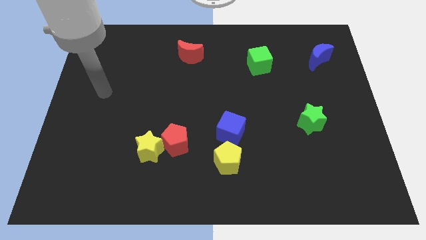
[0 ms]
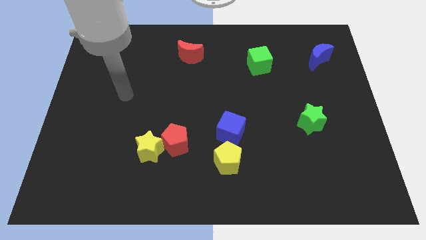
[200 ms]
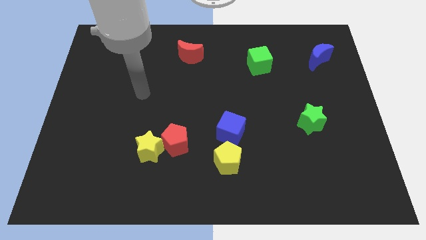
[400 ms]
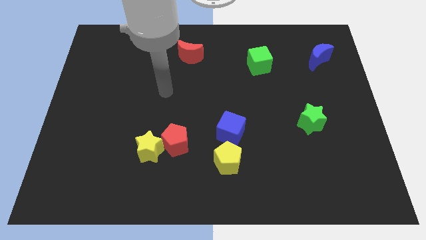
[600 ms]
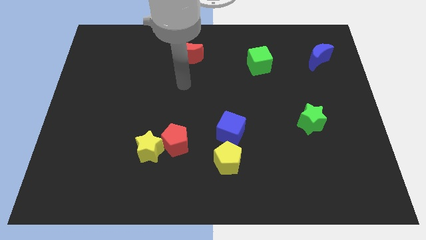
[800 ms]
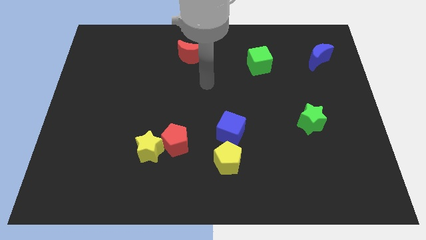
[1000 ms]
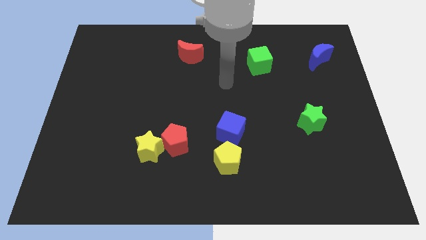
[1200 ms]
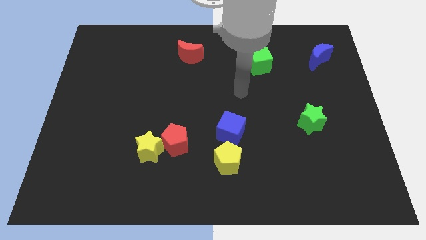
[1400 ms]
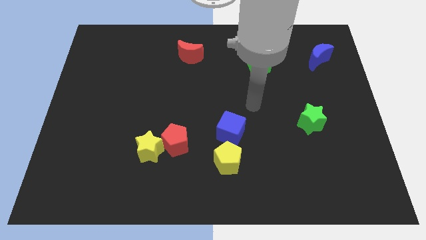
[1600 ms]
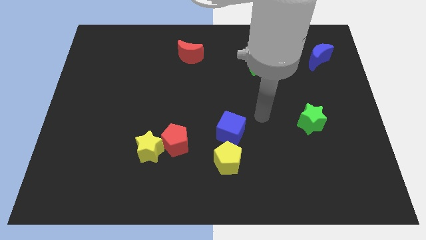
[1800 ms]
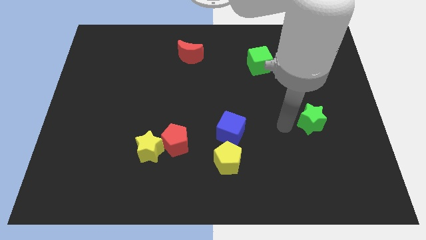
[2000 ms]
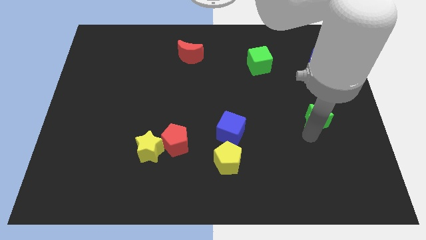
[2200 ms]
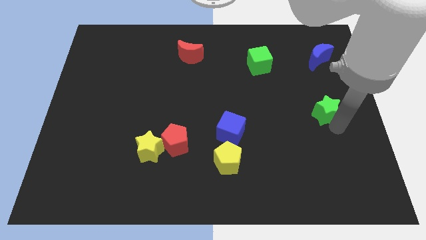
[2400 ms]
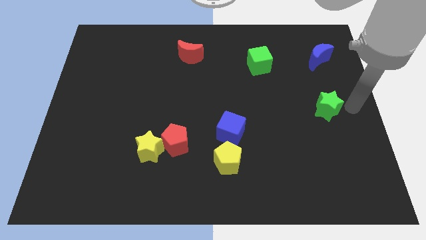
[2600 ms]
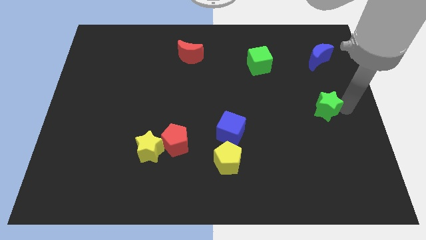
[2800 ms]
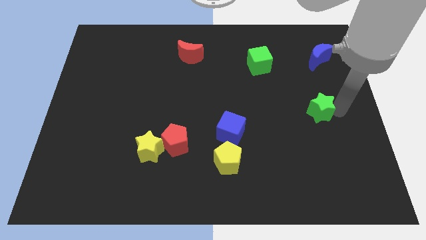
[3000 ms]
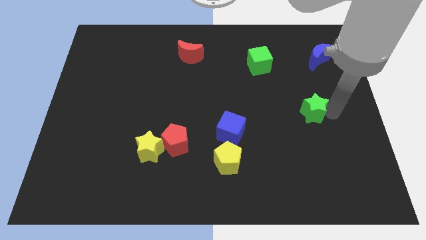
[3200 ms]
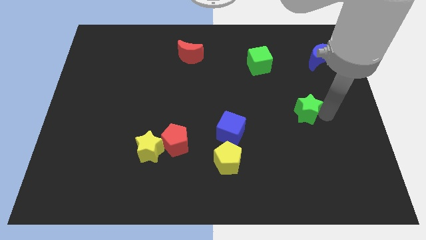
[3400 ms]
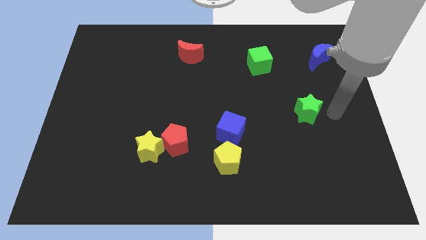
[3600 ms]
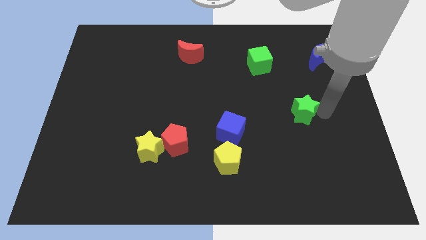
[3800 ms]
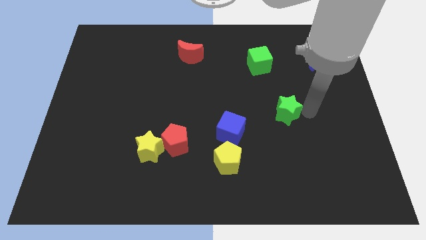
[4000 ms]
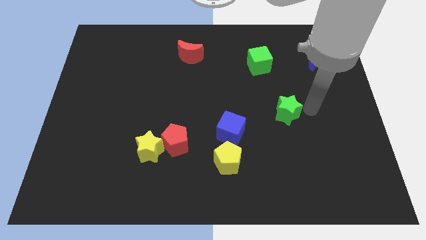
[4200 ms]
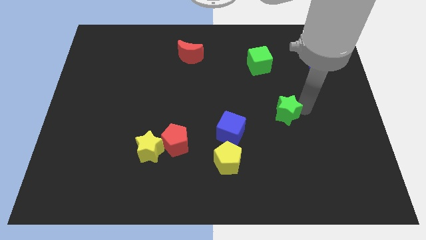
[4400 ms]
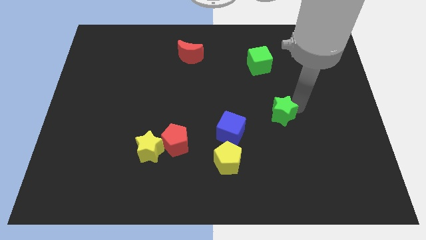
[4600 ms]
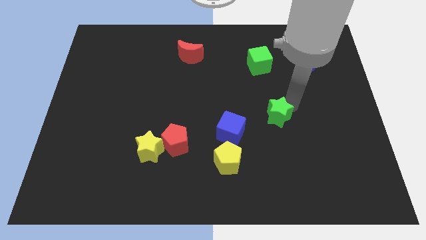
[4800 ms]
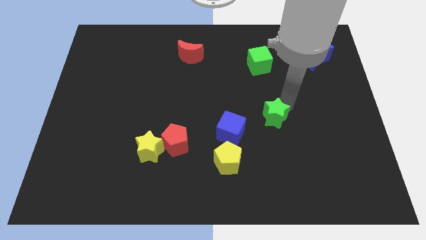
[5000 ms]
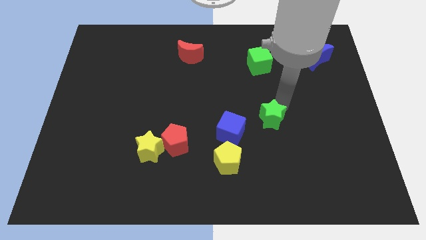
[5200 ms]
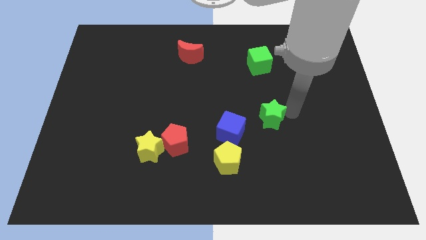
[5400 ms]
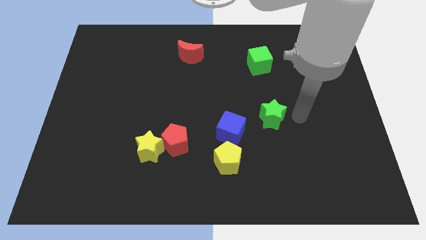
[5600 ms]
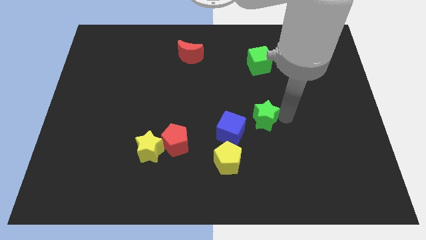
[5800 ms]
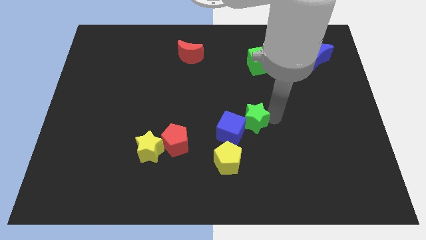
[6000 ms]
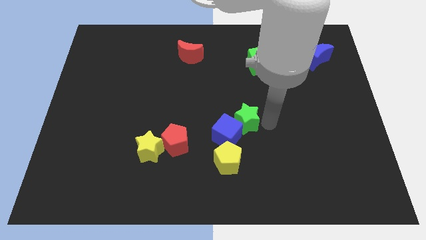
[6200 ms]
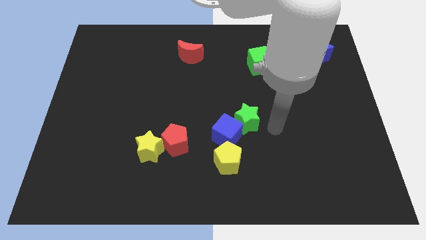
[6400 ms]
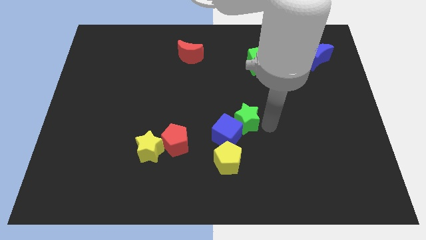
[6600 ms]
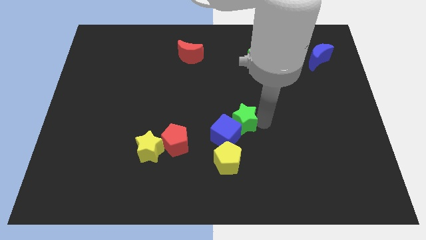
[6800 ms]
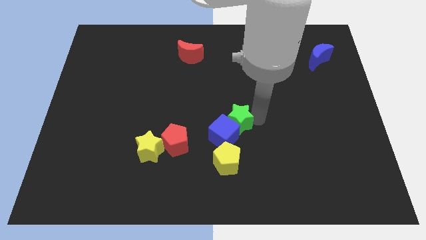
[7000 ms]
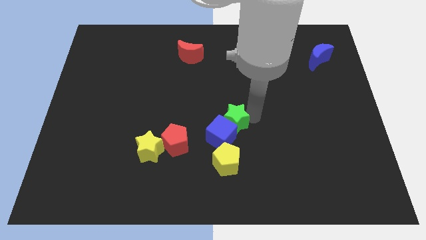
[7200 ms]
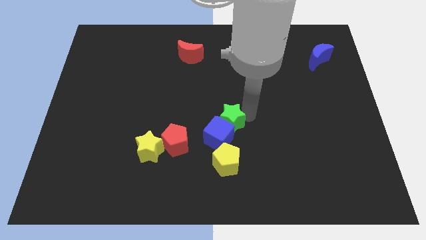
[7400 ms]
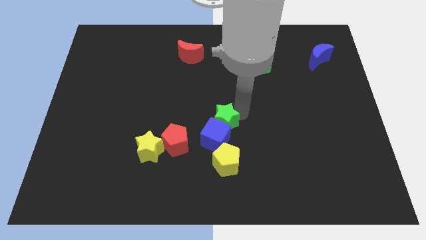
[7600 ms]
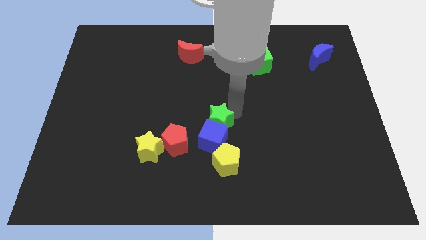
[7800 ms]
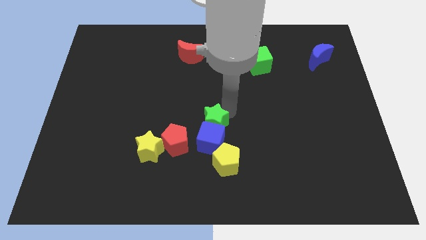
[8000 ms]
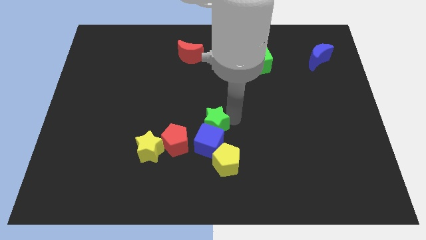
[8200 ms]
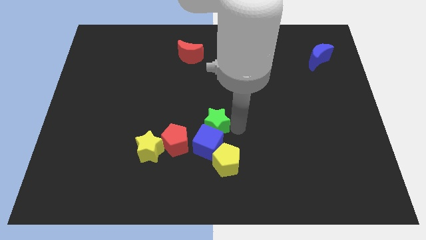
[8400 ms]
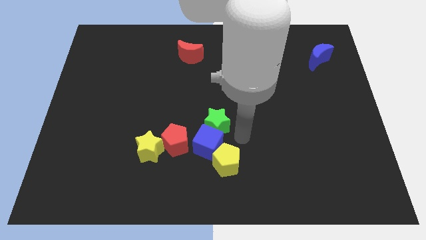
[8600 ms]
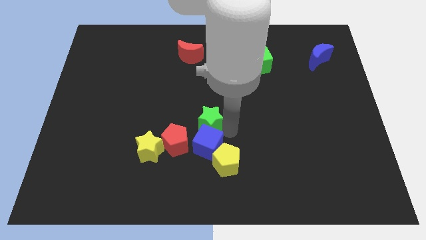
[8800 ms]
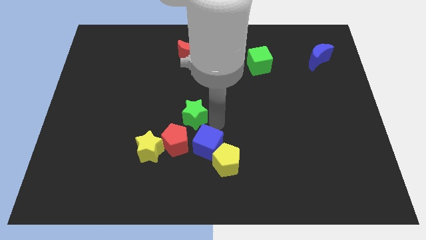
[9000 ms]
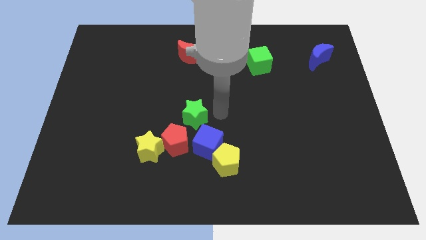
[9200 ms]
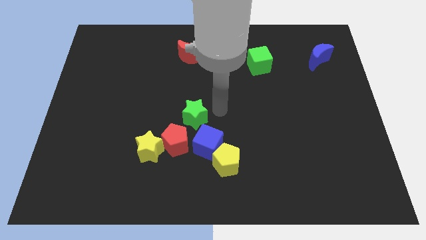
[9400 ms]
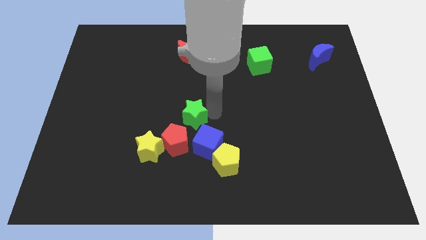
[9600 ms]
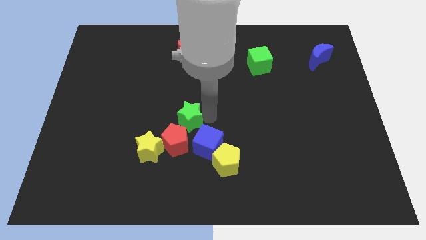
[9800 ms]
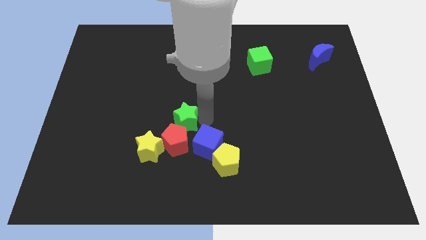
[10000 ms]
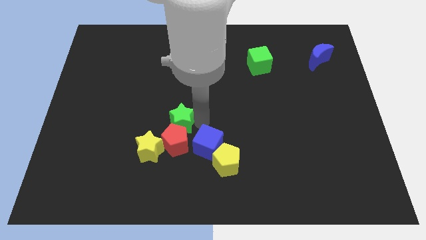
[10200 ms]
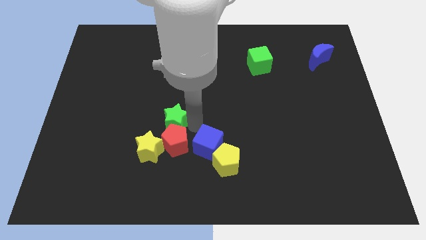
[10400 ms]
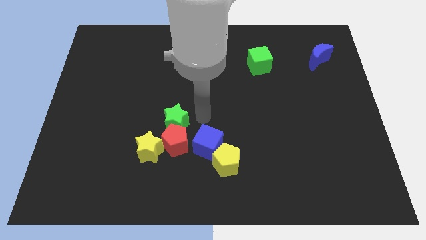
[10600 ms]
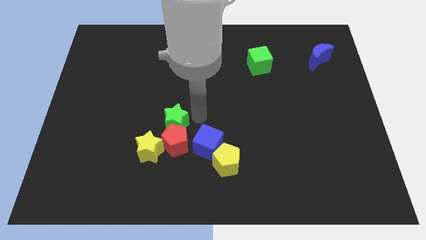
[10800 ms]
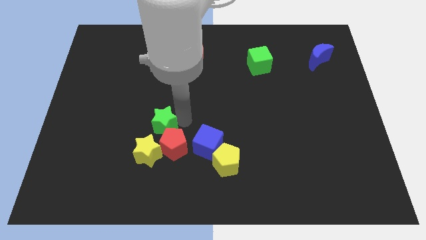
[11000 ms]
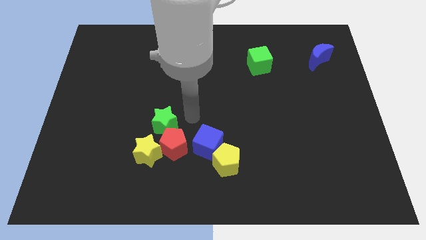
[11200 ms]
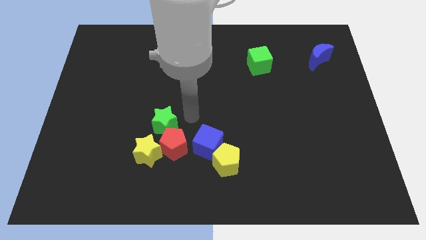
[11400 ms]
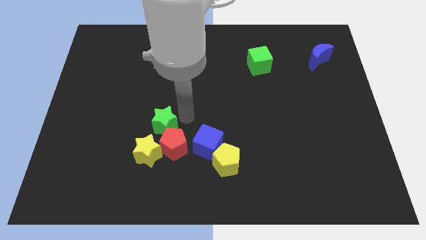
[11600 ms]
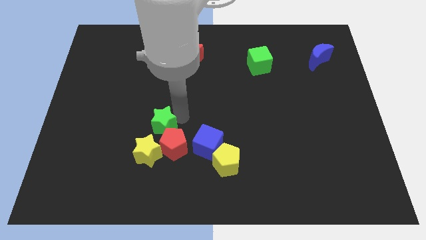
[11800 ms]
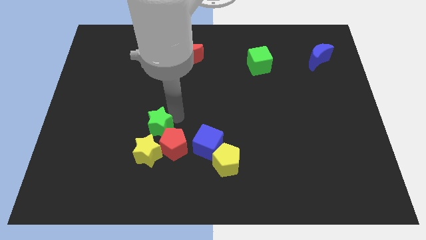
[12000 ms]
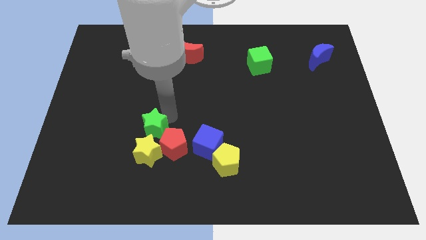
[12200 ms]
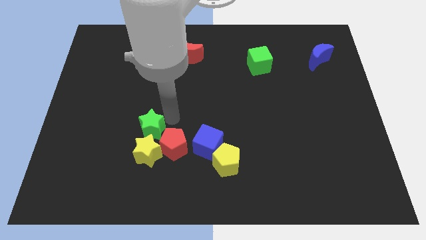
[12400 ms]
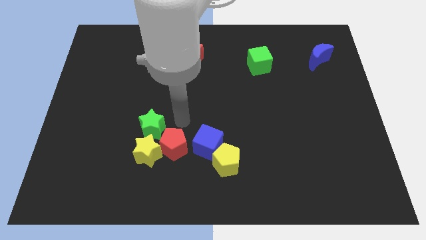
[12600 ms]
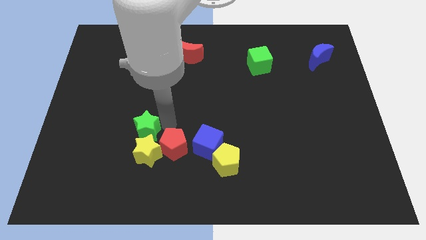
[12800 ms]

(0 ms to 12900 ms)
move the green star to the top left side of the yellow star

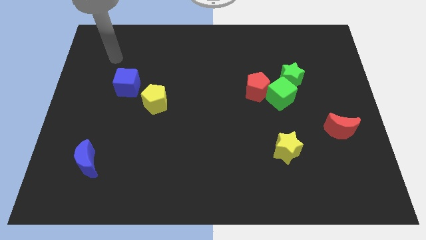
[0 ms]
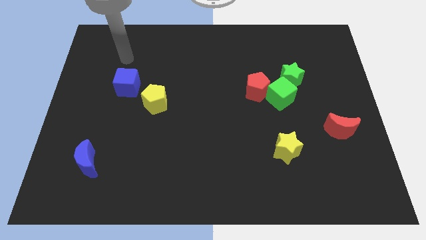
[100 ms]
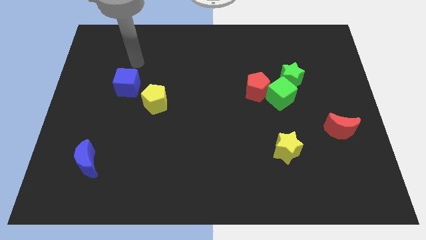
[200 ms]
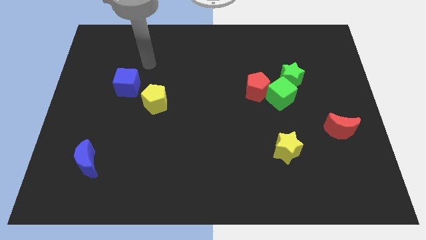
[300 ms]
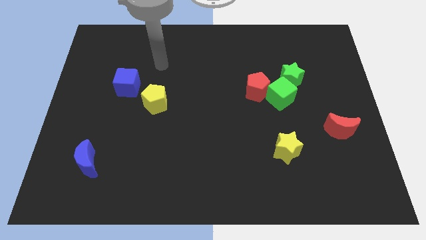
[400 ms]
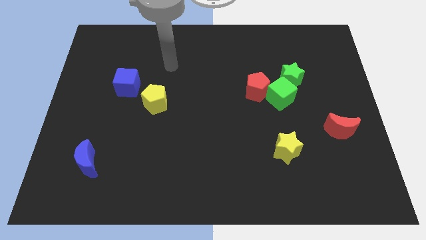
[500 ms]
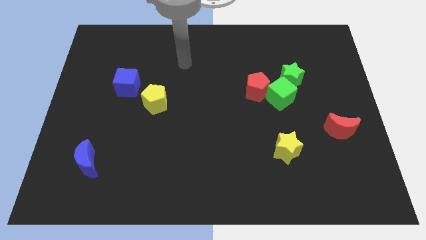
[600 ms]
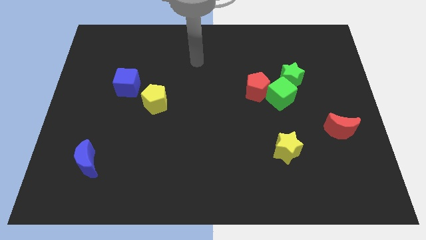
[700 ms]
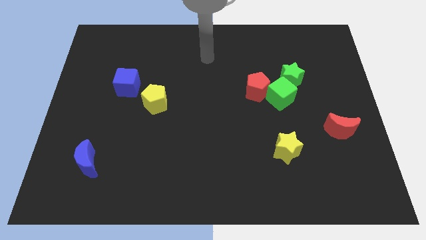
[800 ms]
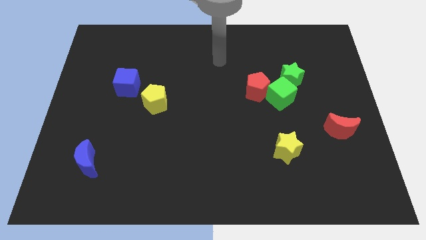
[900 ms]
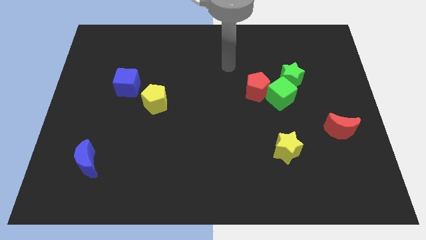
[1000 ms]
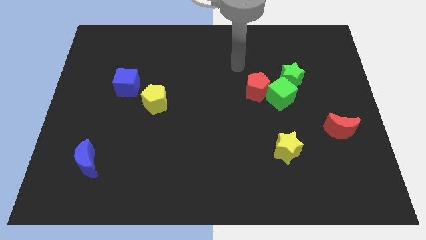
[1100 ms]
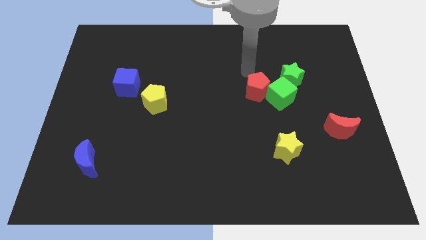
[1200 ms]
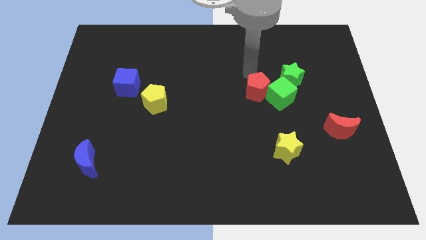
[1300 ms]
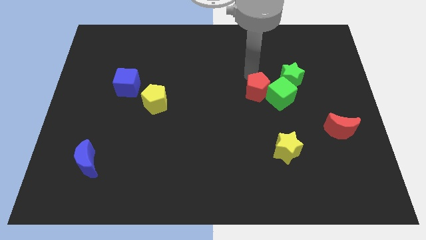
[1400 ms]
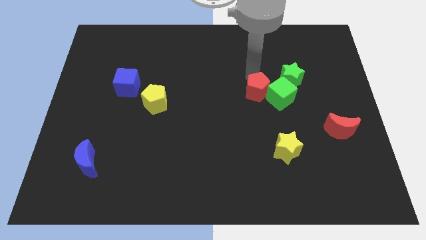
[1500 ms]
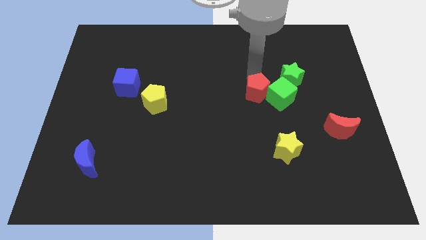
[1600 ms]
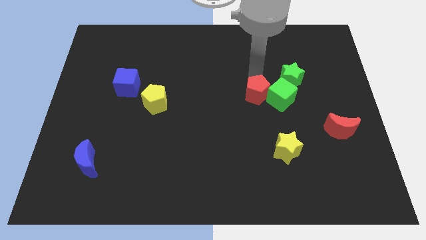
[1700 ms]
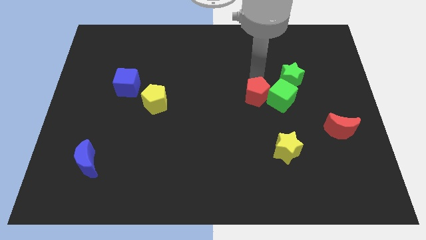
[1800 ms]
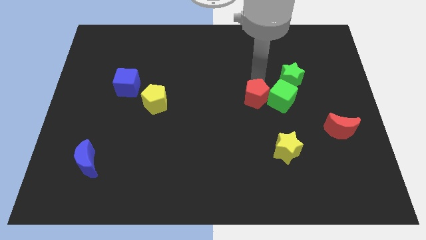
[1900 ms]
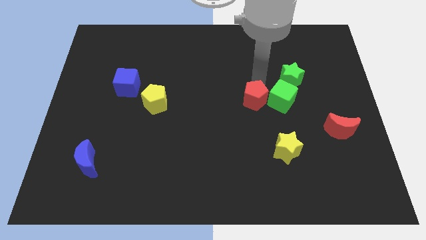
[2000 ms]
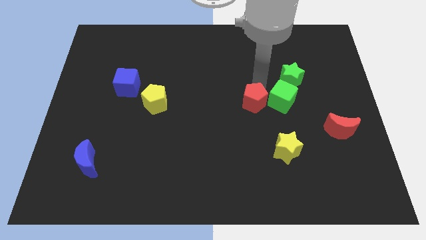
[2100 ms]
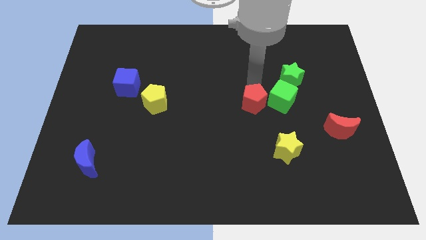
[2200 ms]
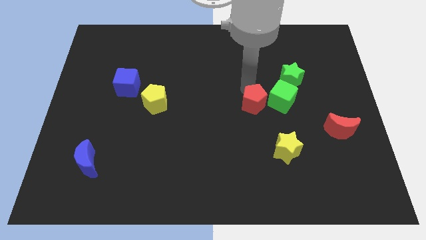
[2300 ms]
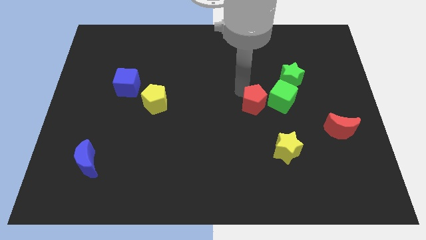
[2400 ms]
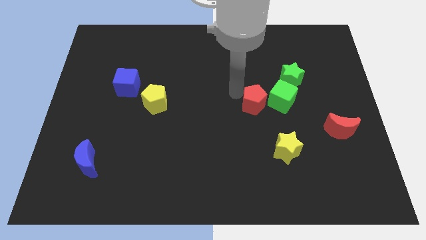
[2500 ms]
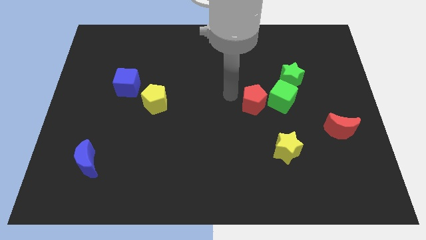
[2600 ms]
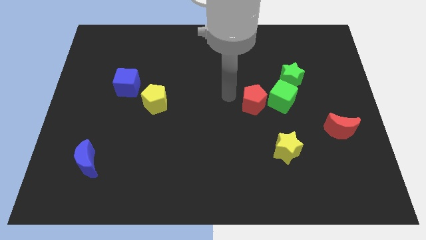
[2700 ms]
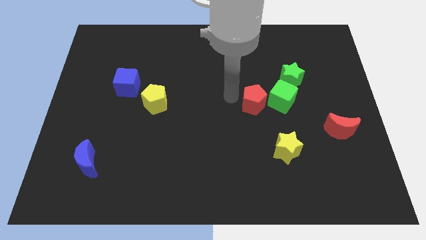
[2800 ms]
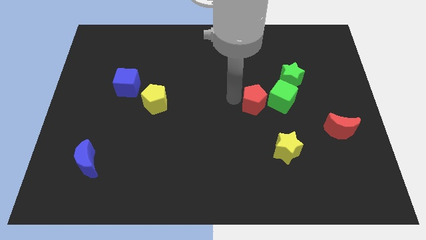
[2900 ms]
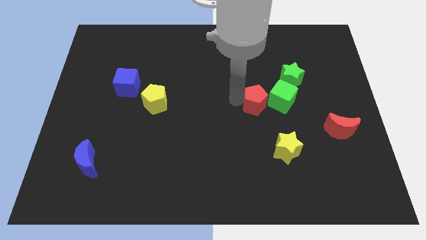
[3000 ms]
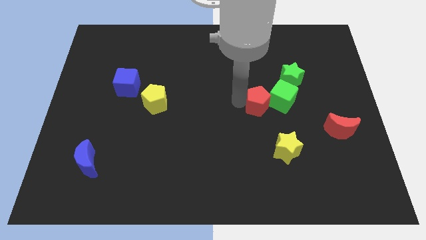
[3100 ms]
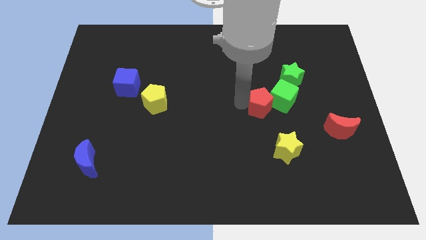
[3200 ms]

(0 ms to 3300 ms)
put the red pentagon above the yellow star
